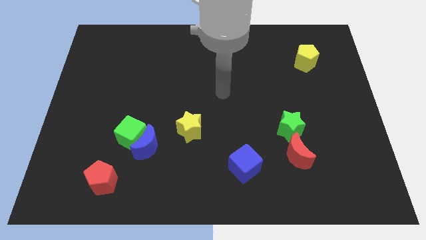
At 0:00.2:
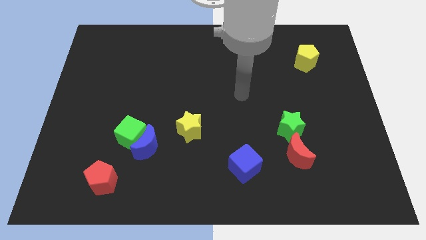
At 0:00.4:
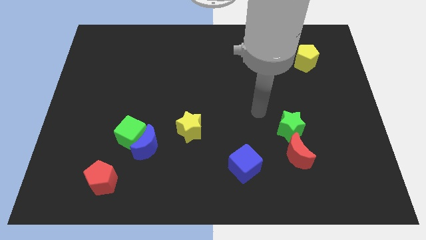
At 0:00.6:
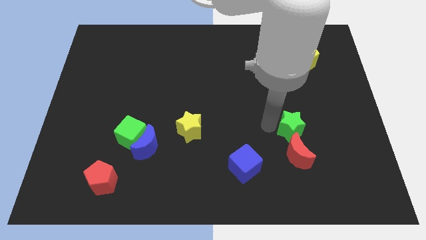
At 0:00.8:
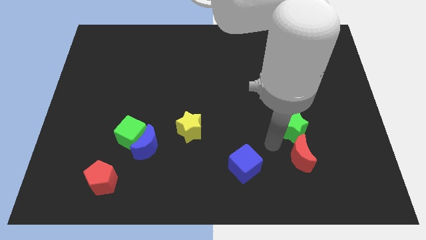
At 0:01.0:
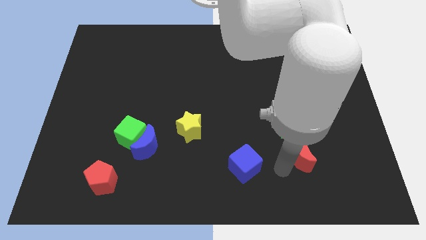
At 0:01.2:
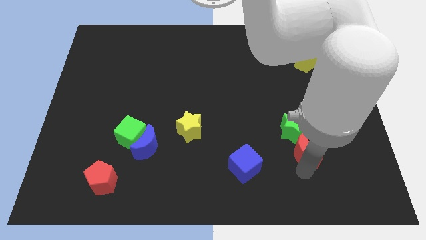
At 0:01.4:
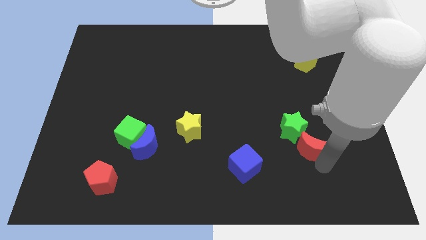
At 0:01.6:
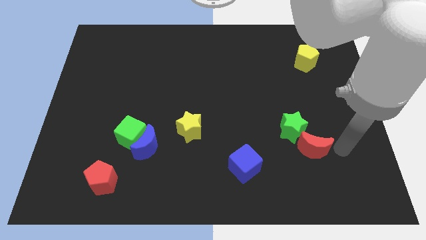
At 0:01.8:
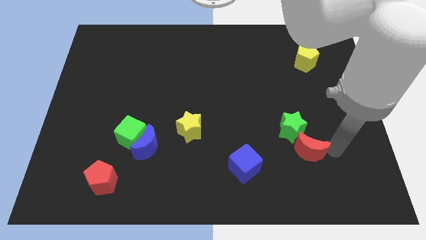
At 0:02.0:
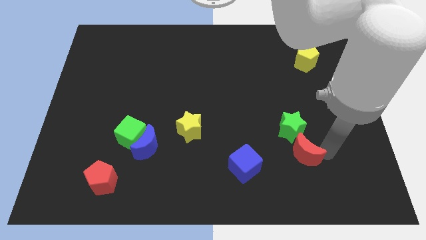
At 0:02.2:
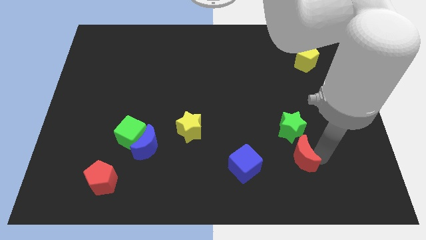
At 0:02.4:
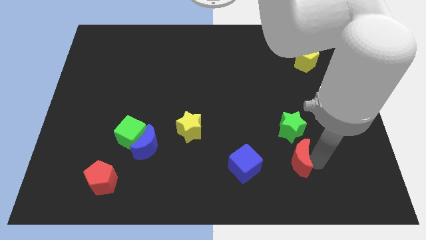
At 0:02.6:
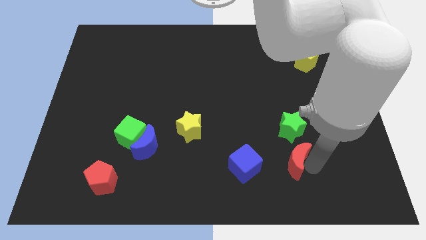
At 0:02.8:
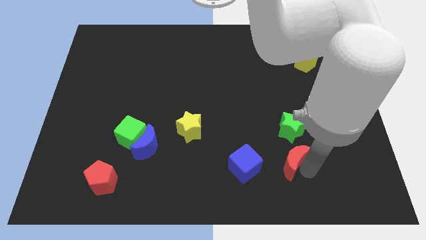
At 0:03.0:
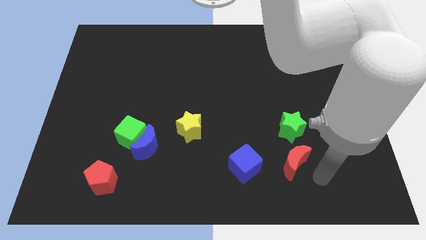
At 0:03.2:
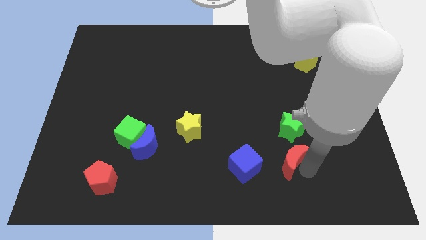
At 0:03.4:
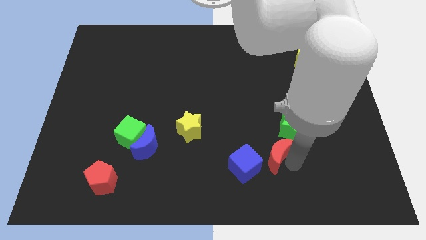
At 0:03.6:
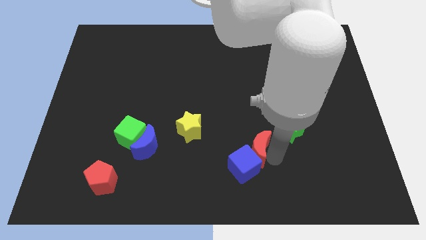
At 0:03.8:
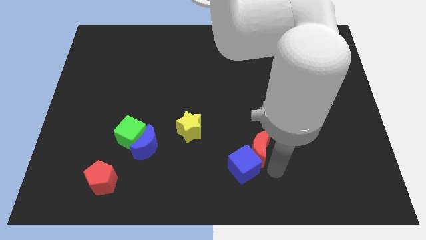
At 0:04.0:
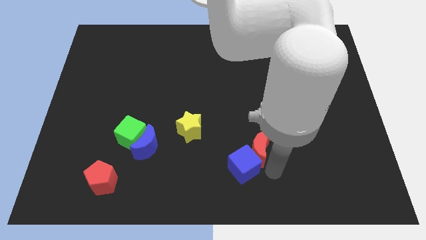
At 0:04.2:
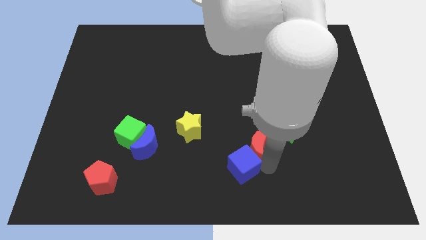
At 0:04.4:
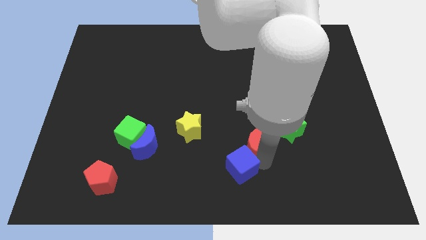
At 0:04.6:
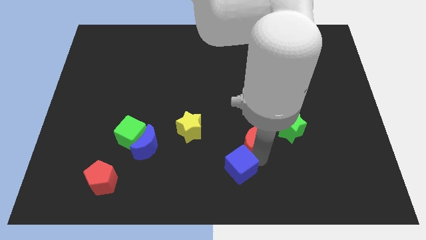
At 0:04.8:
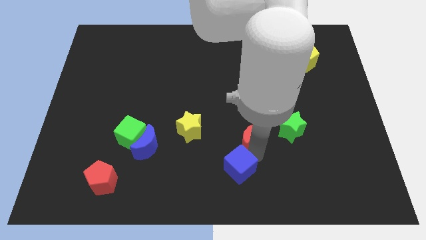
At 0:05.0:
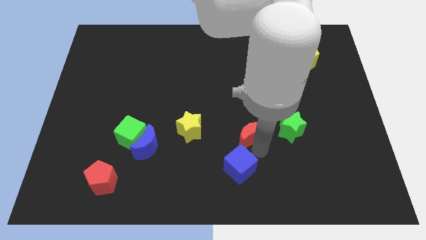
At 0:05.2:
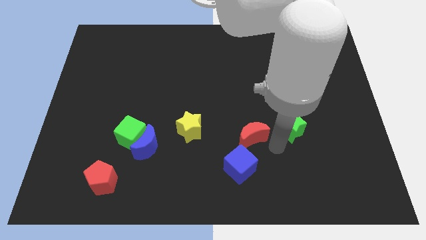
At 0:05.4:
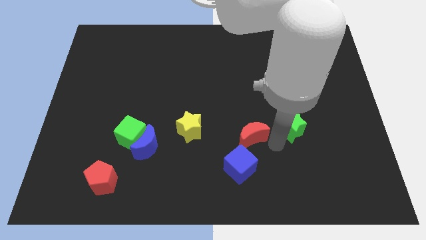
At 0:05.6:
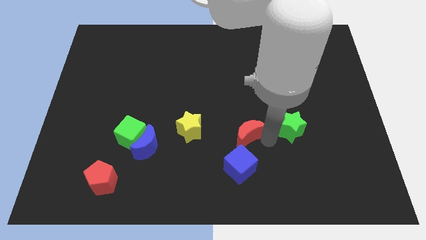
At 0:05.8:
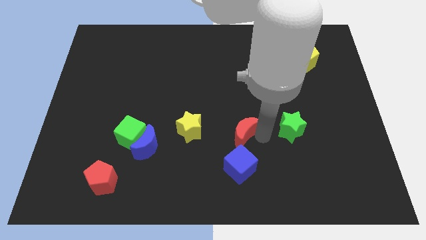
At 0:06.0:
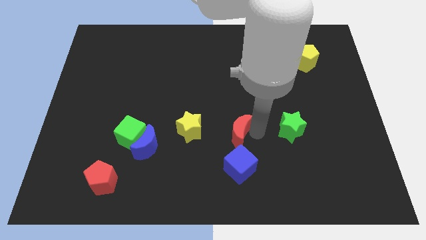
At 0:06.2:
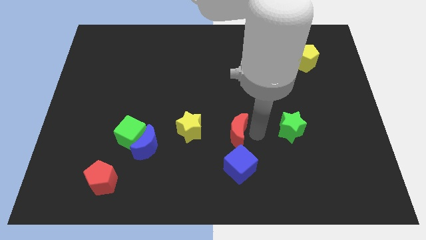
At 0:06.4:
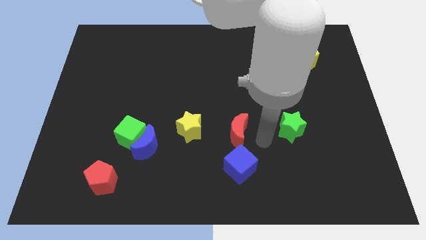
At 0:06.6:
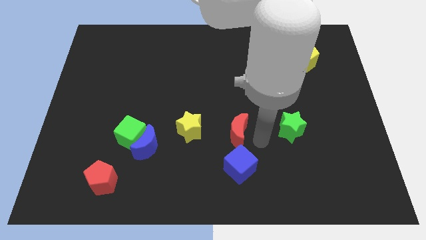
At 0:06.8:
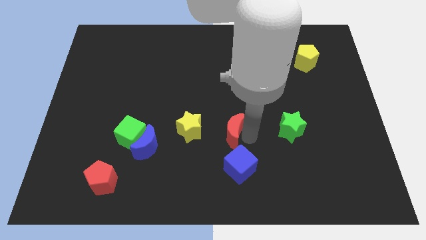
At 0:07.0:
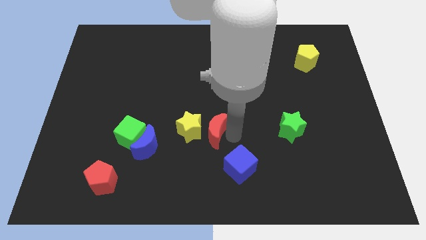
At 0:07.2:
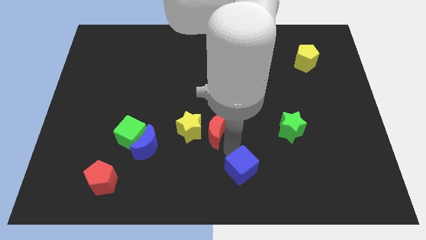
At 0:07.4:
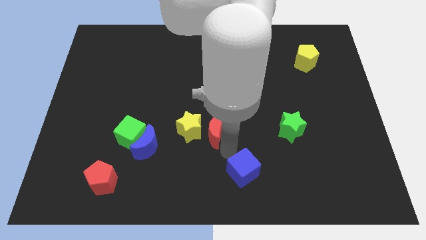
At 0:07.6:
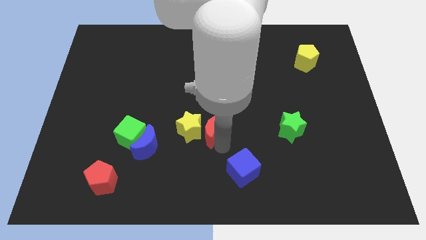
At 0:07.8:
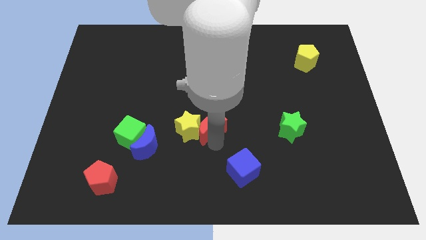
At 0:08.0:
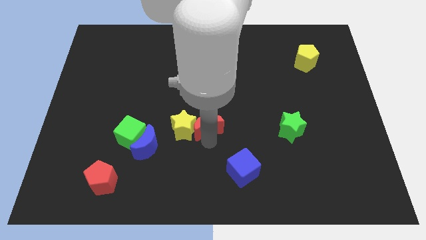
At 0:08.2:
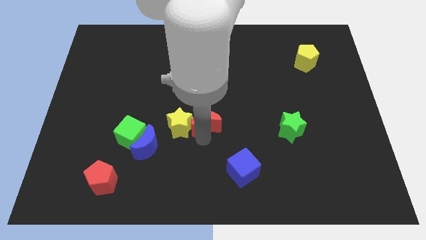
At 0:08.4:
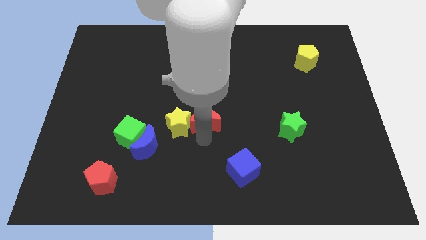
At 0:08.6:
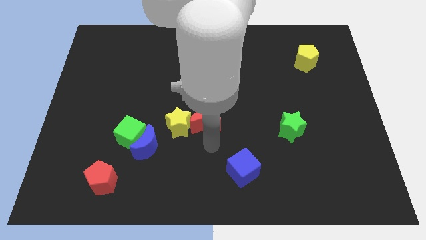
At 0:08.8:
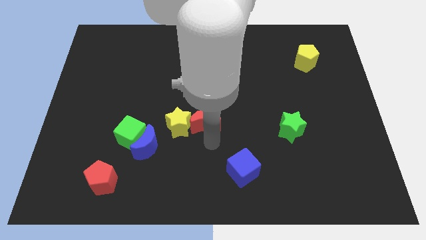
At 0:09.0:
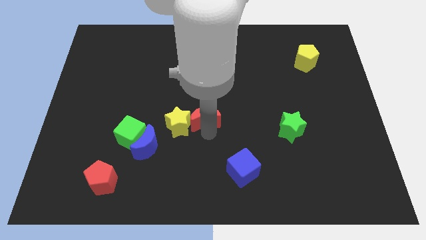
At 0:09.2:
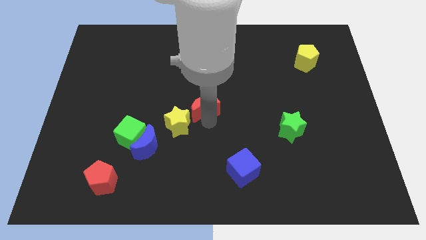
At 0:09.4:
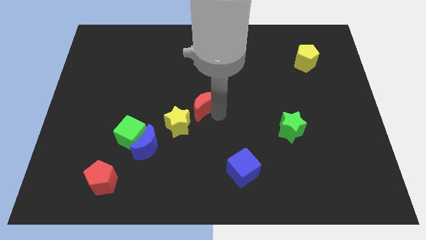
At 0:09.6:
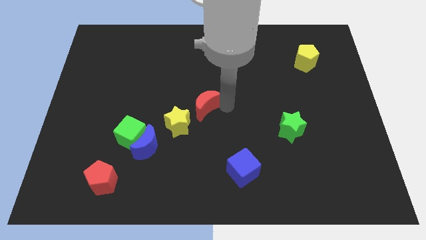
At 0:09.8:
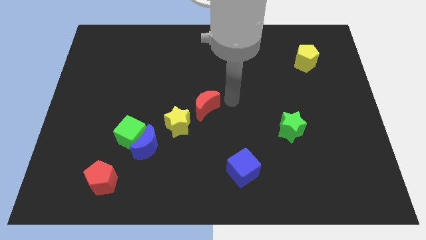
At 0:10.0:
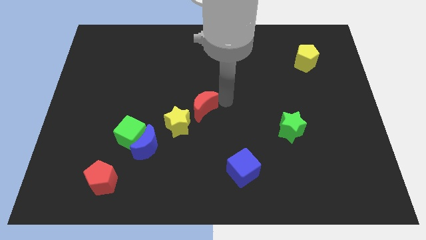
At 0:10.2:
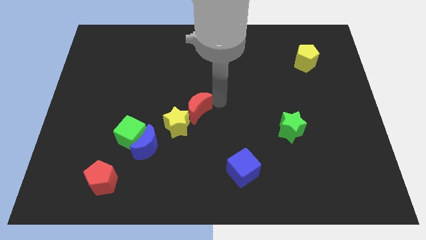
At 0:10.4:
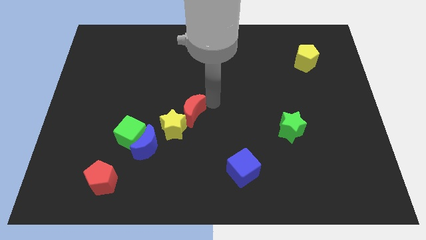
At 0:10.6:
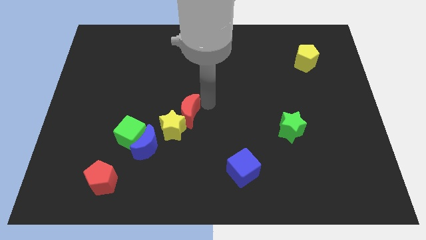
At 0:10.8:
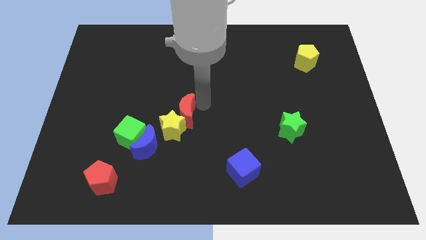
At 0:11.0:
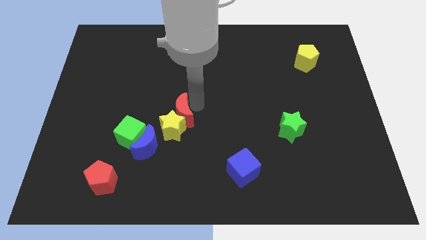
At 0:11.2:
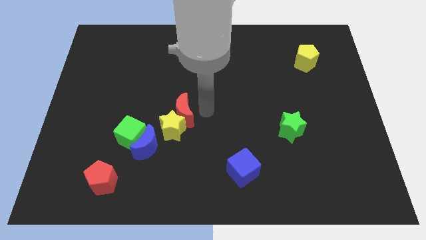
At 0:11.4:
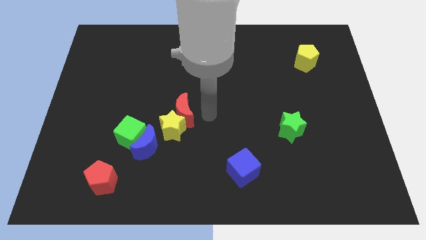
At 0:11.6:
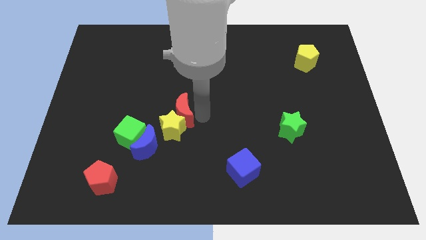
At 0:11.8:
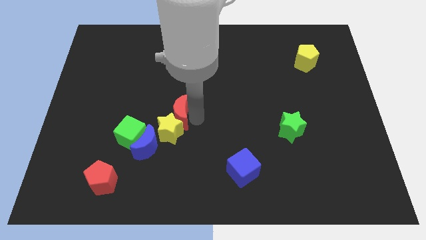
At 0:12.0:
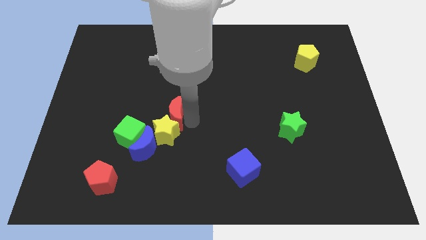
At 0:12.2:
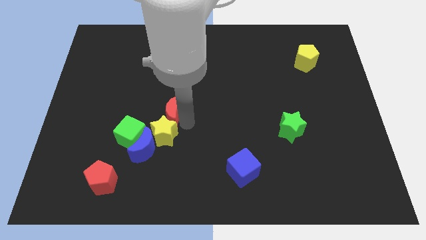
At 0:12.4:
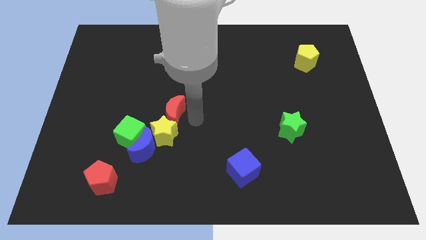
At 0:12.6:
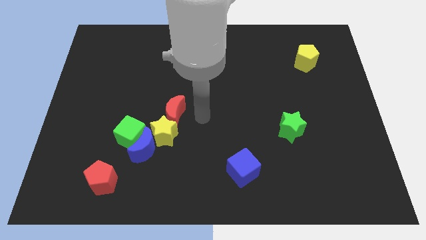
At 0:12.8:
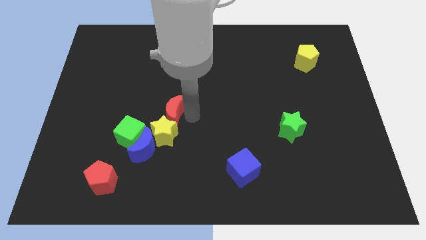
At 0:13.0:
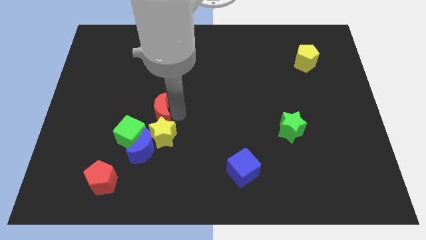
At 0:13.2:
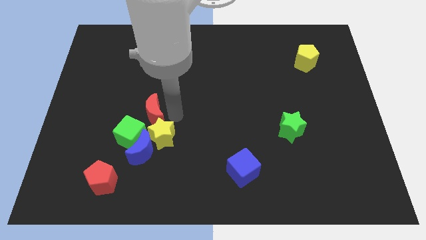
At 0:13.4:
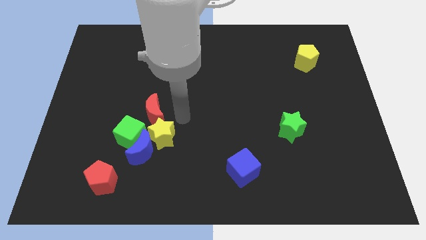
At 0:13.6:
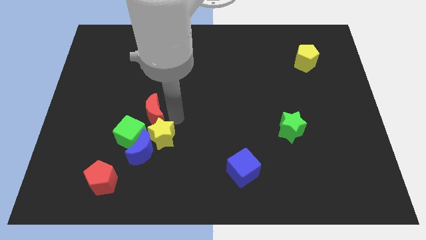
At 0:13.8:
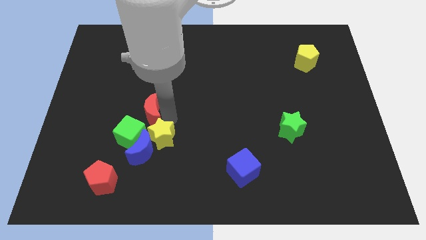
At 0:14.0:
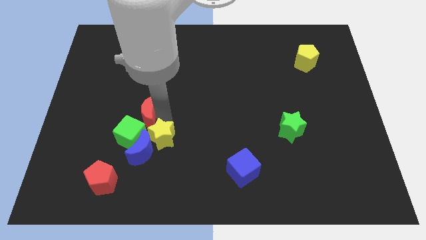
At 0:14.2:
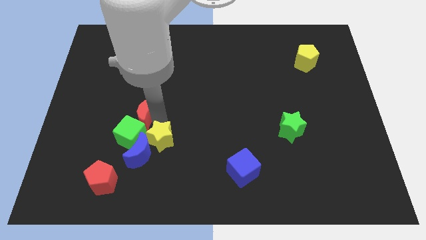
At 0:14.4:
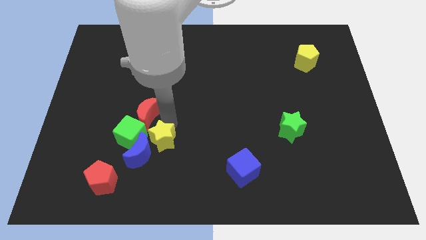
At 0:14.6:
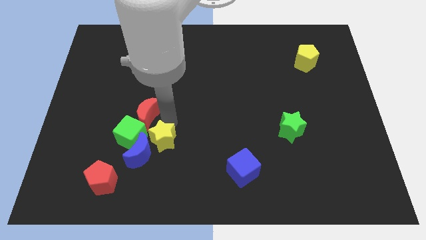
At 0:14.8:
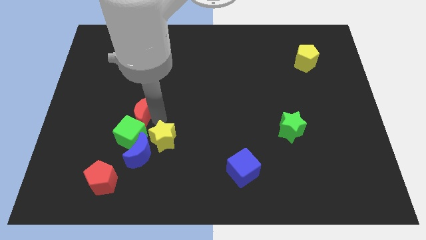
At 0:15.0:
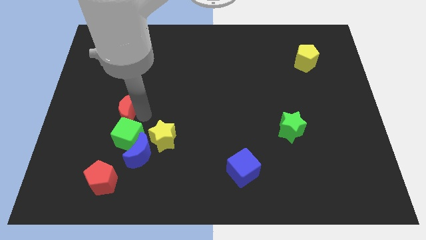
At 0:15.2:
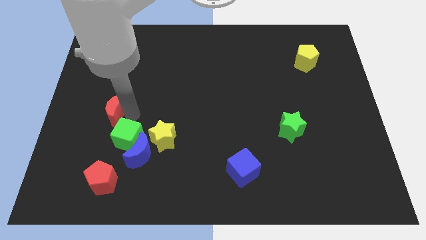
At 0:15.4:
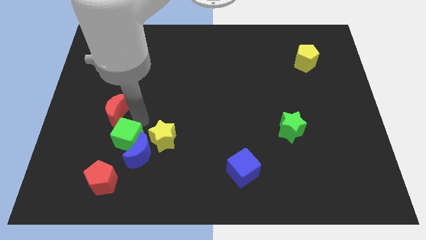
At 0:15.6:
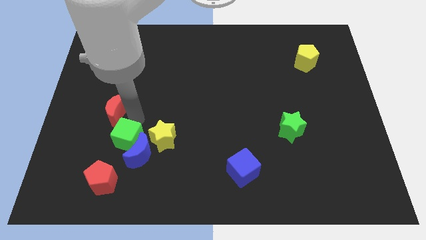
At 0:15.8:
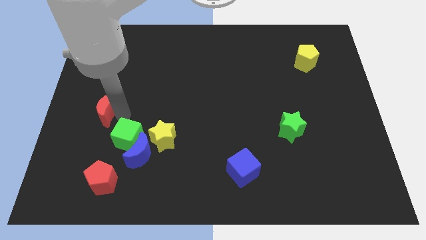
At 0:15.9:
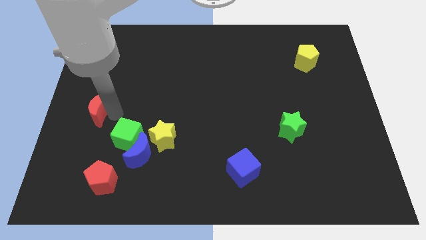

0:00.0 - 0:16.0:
slide the red moon to the center left
